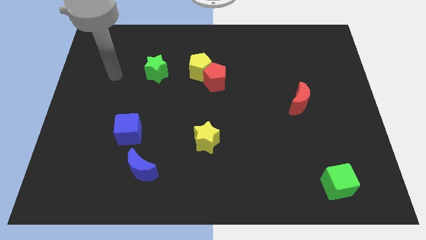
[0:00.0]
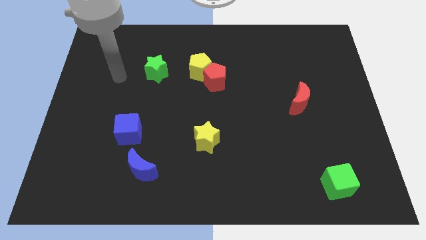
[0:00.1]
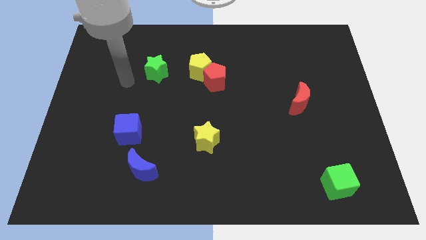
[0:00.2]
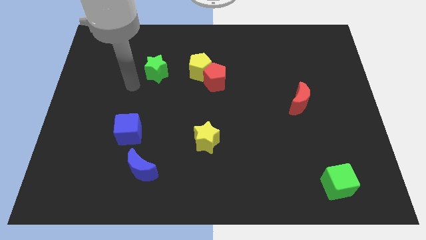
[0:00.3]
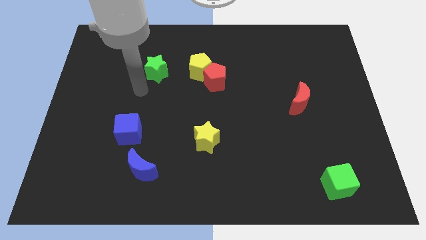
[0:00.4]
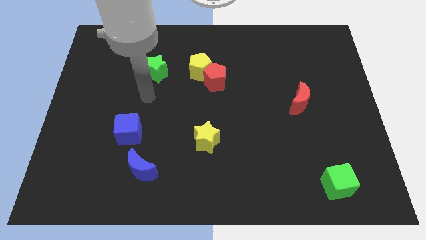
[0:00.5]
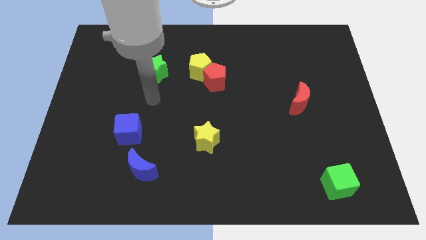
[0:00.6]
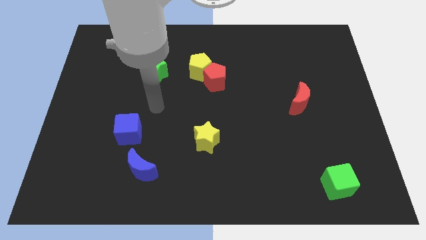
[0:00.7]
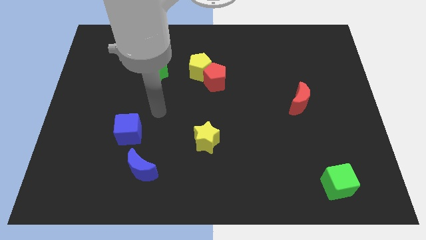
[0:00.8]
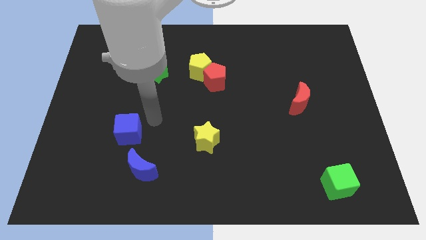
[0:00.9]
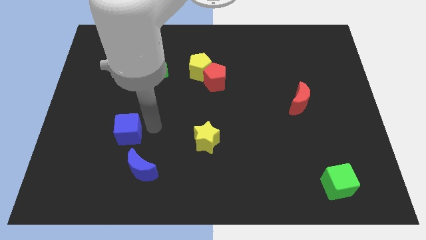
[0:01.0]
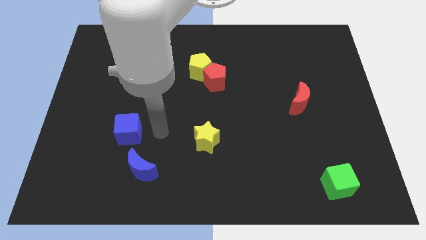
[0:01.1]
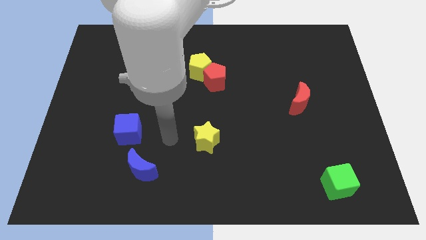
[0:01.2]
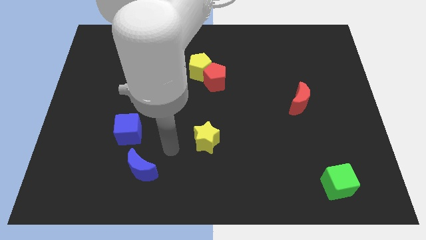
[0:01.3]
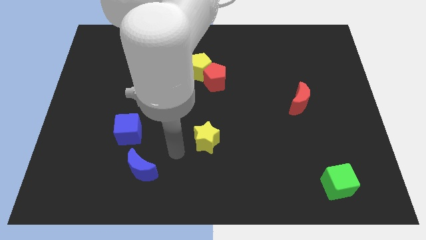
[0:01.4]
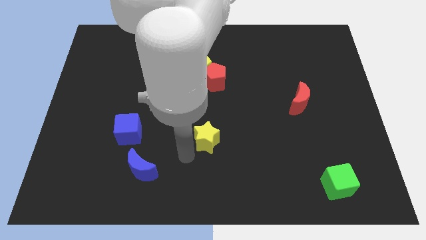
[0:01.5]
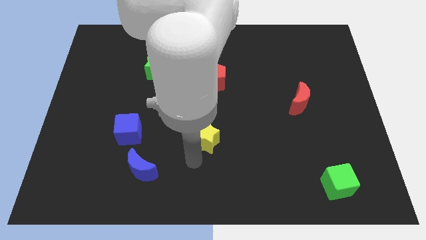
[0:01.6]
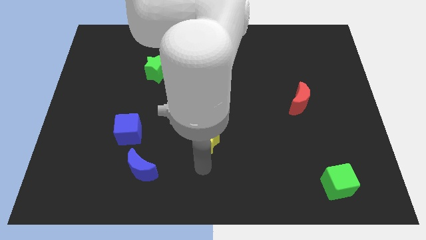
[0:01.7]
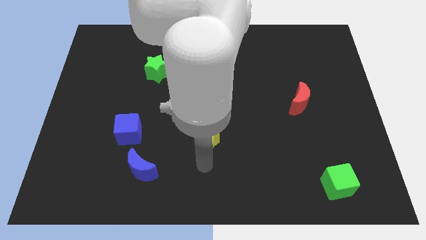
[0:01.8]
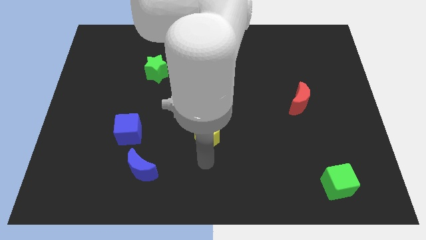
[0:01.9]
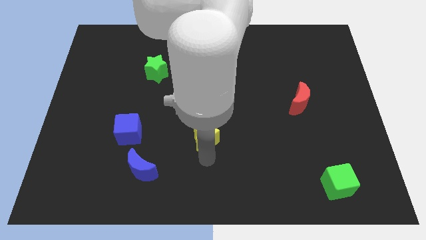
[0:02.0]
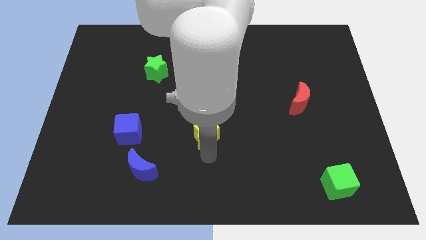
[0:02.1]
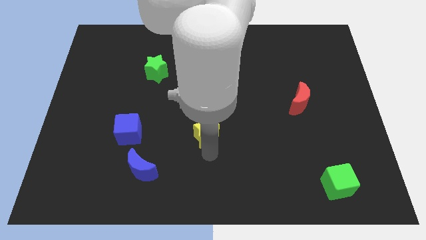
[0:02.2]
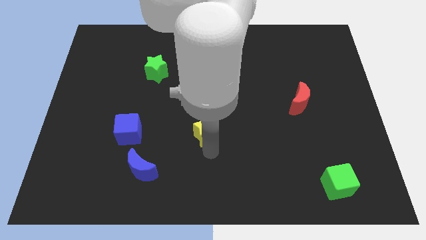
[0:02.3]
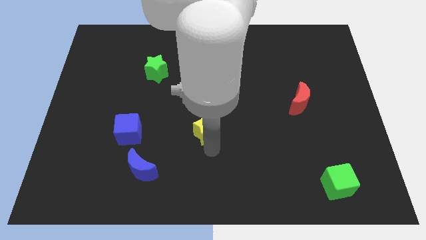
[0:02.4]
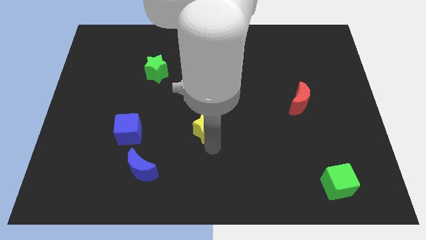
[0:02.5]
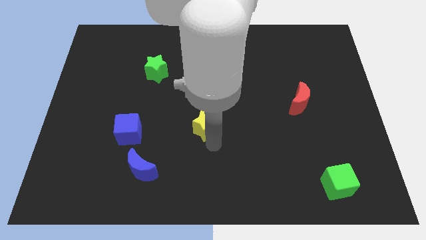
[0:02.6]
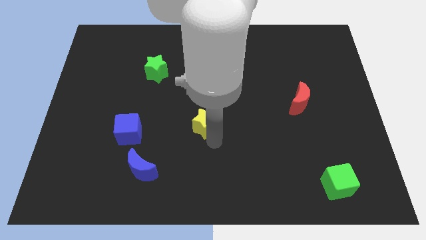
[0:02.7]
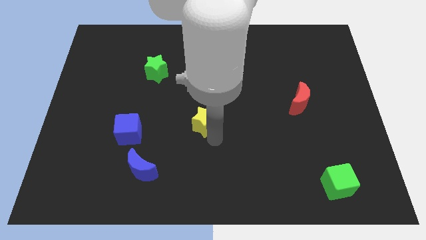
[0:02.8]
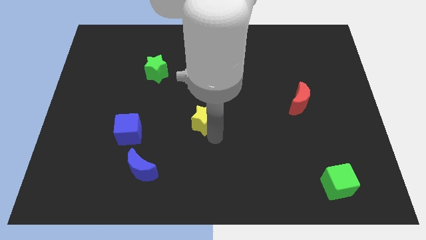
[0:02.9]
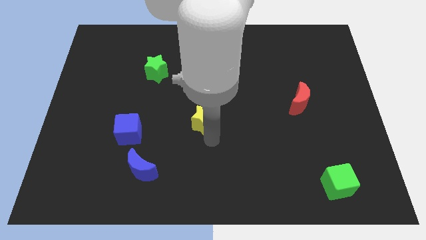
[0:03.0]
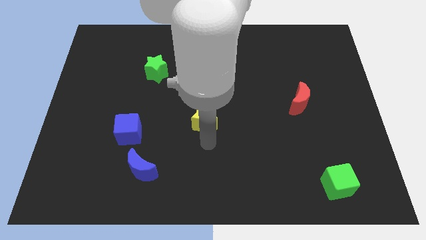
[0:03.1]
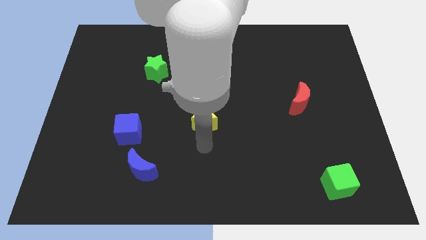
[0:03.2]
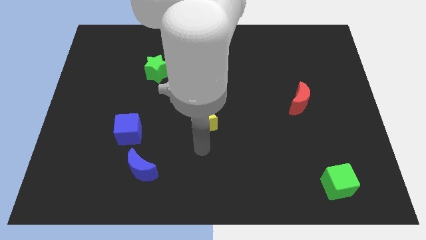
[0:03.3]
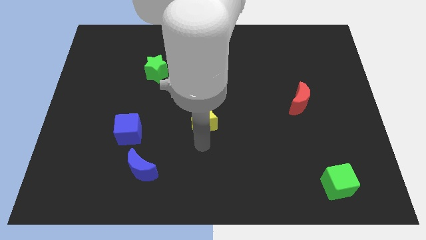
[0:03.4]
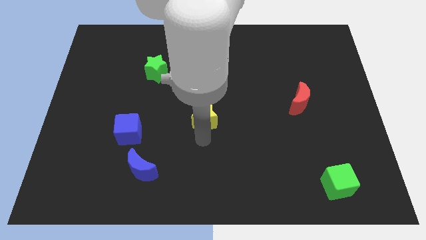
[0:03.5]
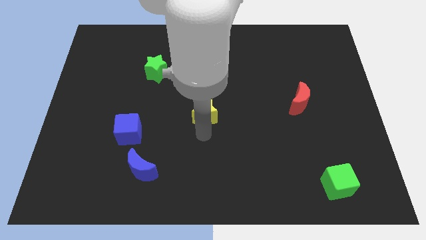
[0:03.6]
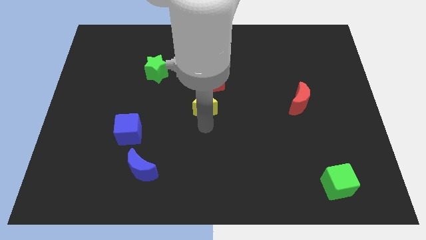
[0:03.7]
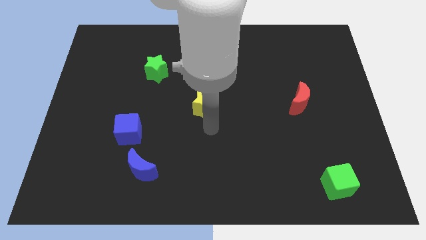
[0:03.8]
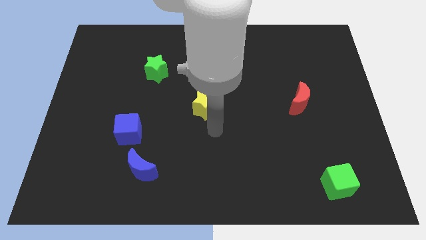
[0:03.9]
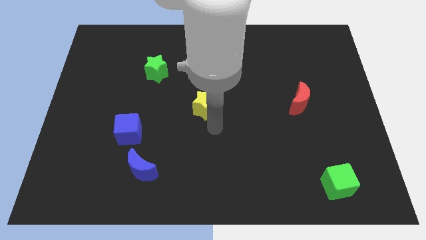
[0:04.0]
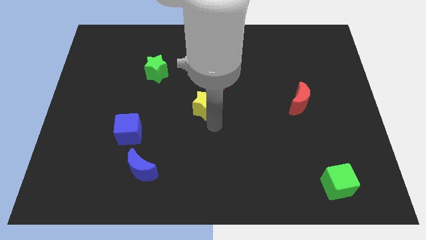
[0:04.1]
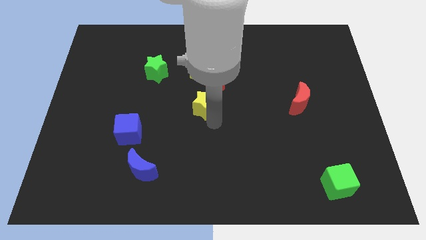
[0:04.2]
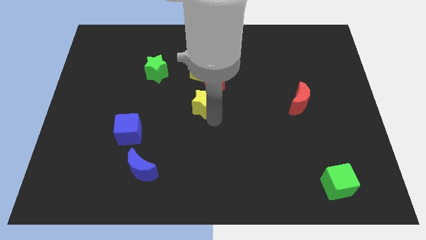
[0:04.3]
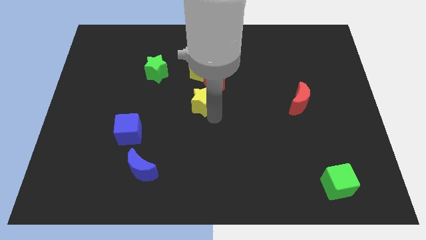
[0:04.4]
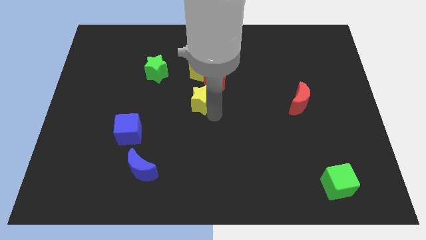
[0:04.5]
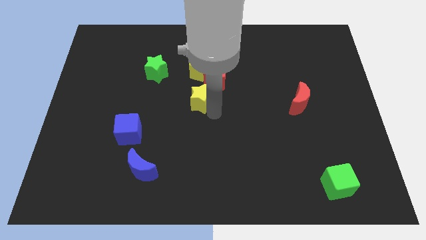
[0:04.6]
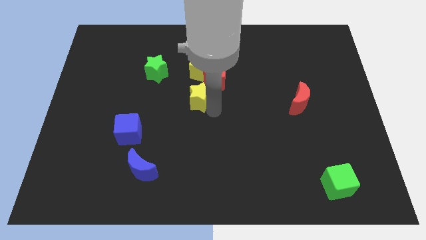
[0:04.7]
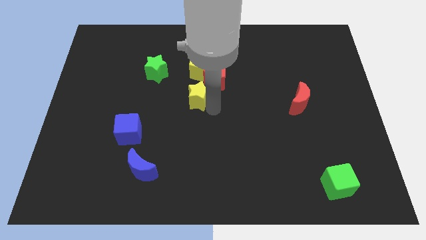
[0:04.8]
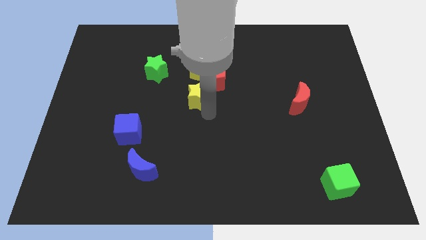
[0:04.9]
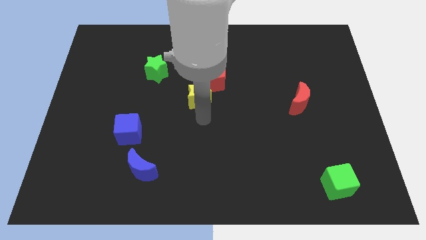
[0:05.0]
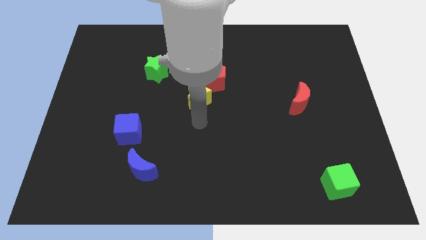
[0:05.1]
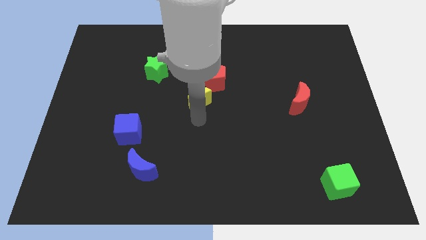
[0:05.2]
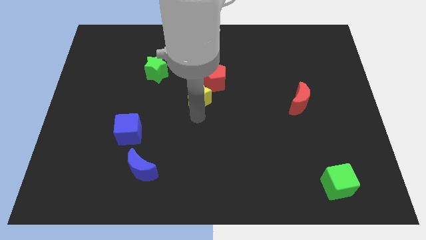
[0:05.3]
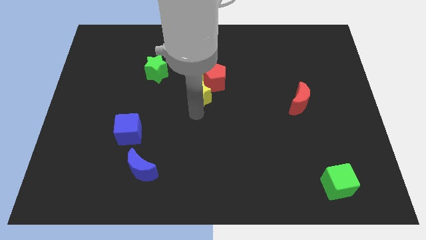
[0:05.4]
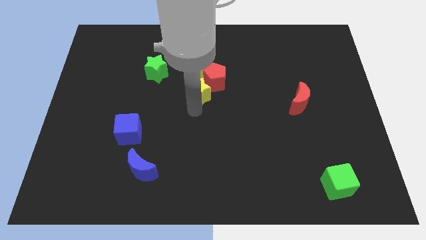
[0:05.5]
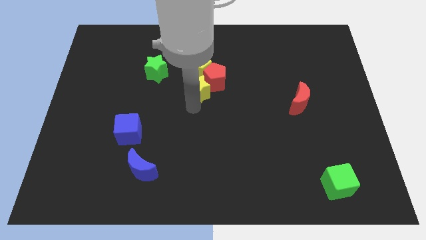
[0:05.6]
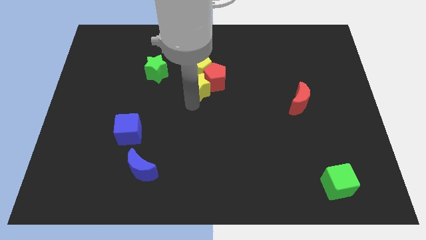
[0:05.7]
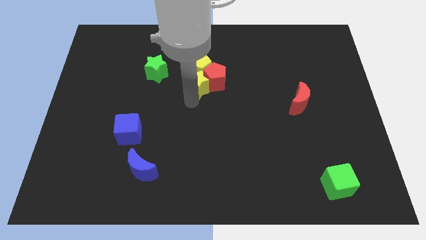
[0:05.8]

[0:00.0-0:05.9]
move the yellow star close to the yellow pentagon
